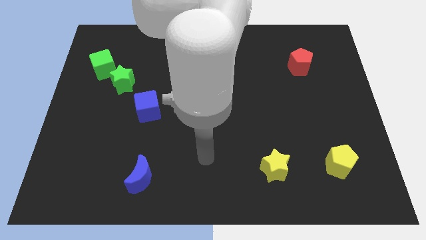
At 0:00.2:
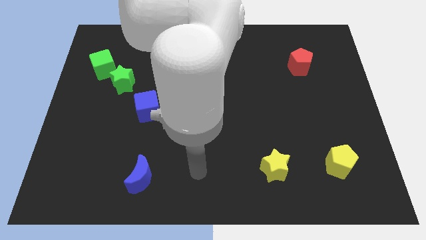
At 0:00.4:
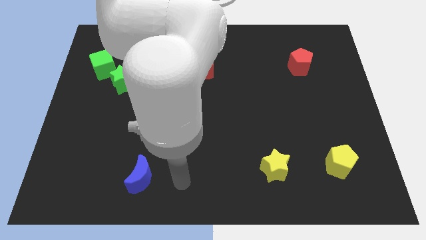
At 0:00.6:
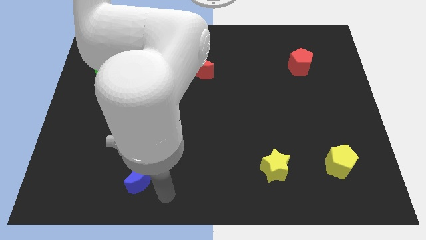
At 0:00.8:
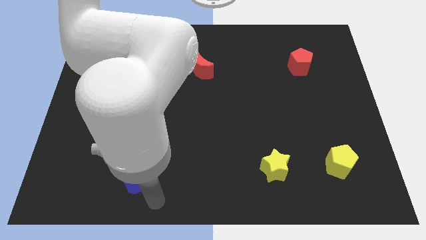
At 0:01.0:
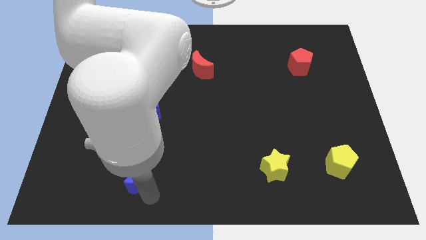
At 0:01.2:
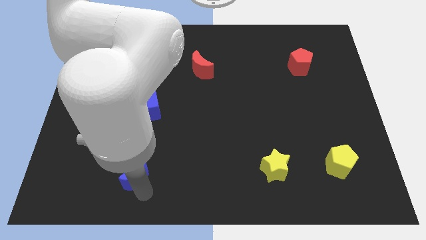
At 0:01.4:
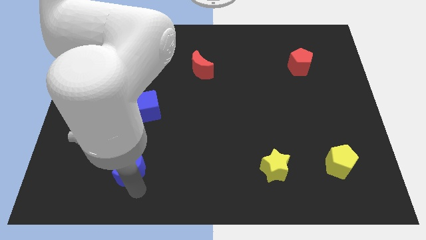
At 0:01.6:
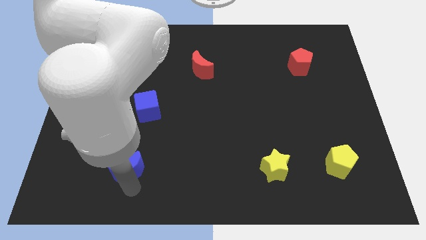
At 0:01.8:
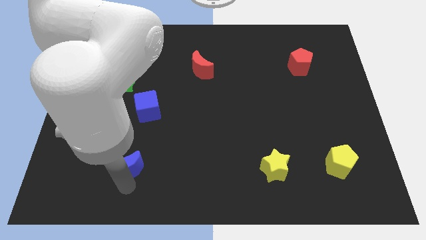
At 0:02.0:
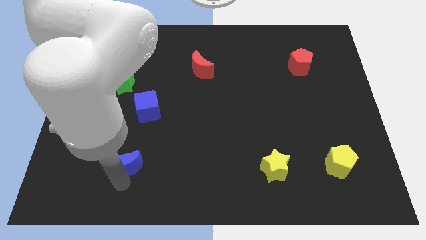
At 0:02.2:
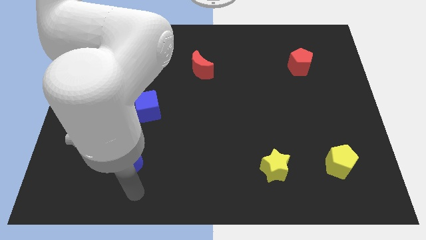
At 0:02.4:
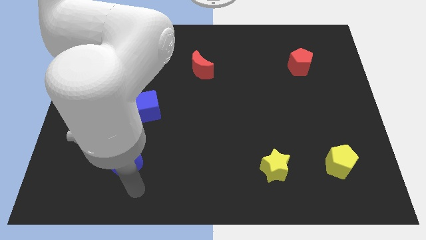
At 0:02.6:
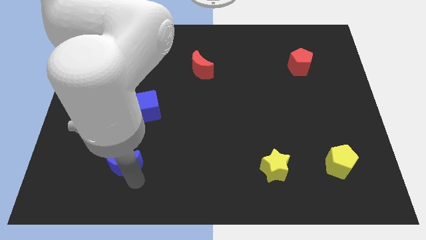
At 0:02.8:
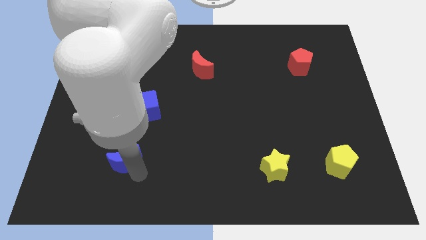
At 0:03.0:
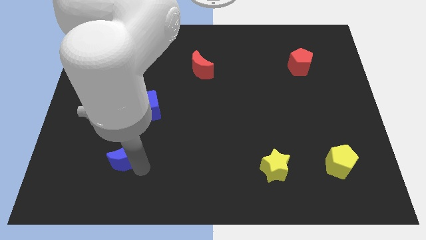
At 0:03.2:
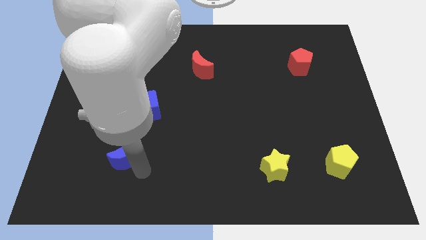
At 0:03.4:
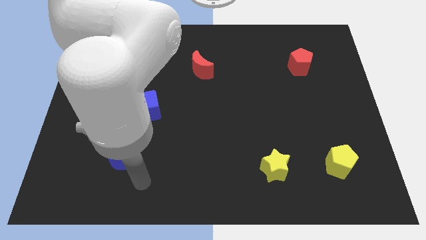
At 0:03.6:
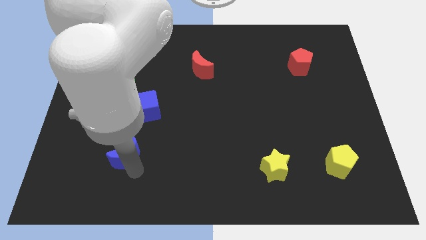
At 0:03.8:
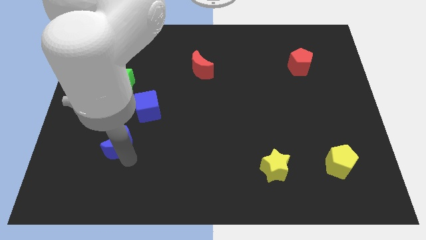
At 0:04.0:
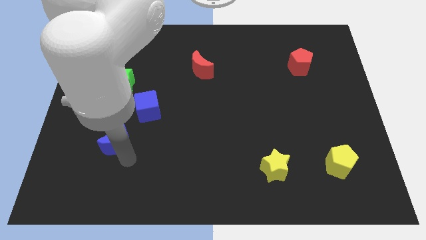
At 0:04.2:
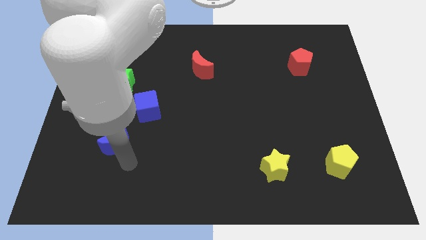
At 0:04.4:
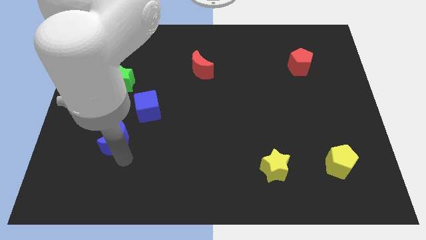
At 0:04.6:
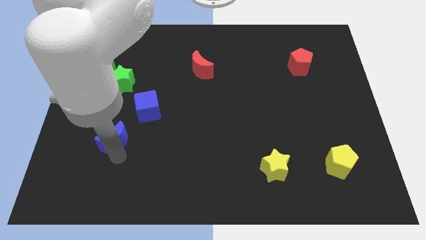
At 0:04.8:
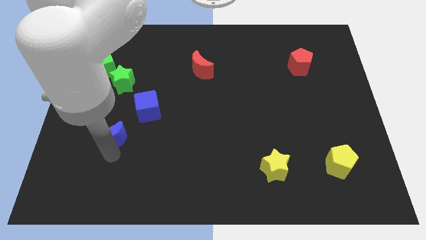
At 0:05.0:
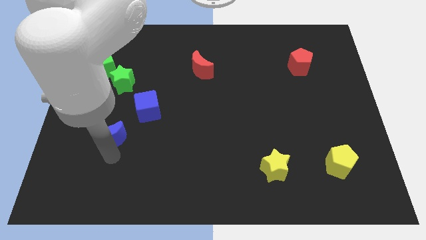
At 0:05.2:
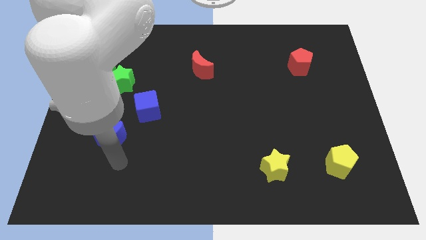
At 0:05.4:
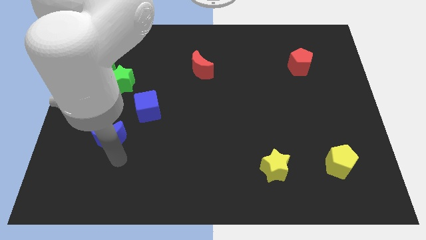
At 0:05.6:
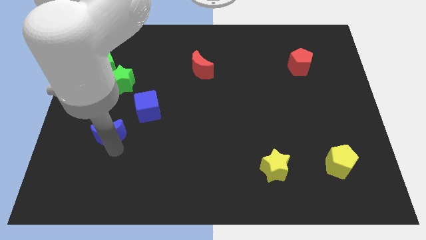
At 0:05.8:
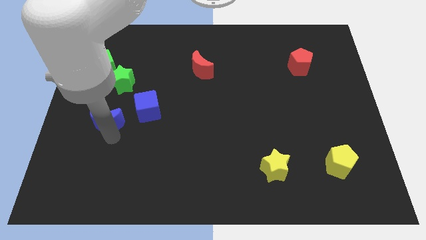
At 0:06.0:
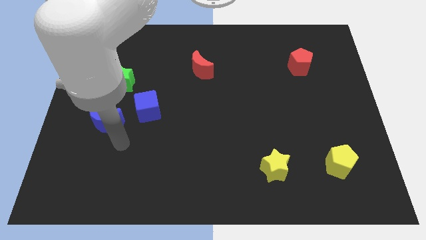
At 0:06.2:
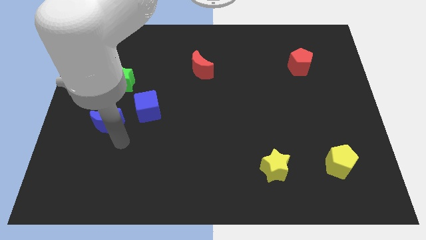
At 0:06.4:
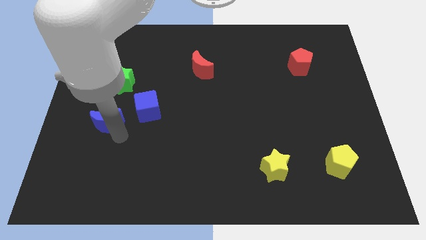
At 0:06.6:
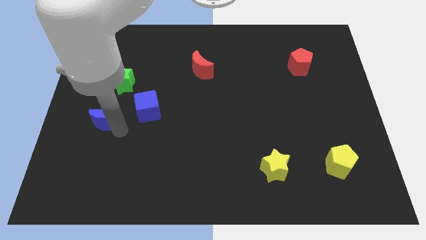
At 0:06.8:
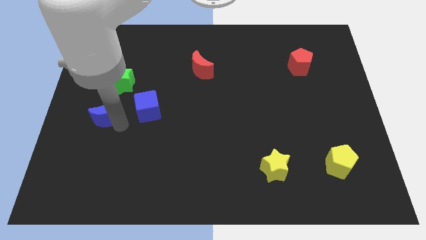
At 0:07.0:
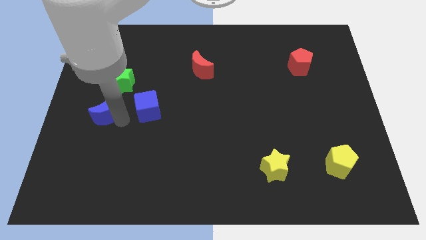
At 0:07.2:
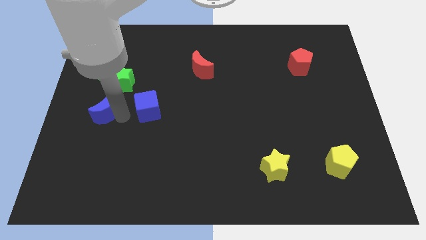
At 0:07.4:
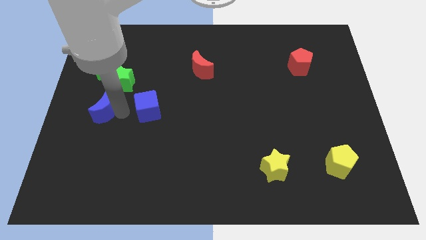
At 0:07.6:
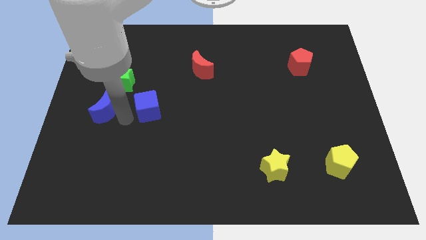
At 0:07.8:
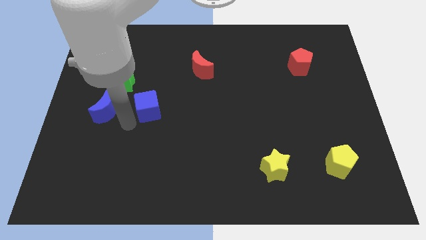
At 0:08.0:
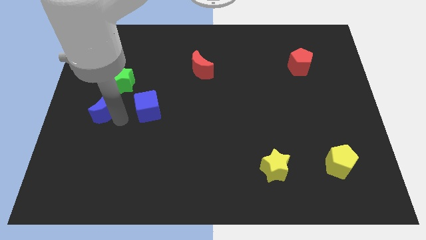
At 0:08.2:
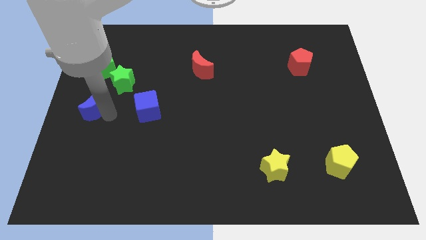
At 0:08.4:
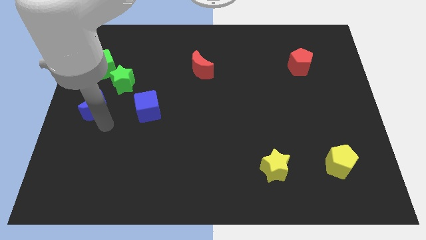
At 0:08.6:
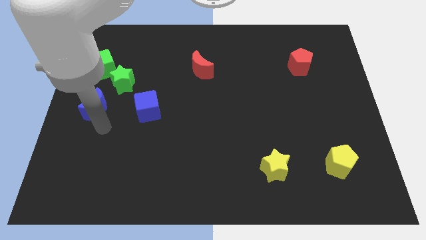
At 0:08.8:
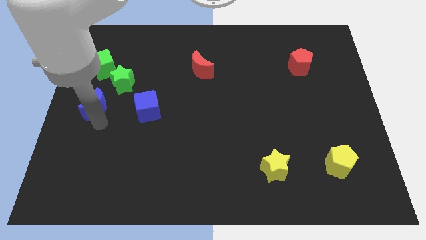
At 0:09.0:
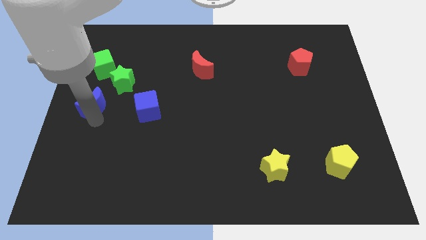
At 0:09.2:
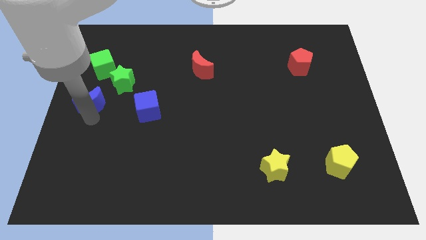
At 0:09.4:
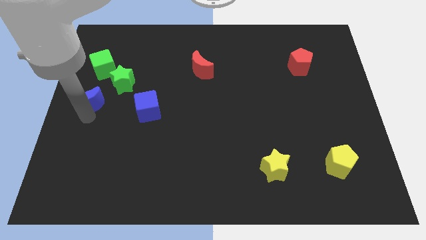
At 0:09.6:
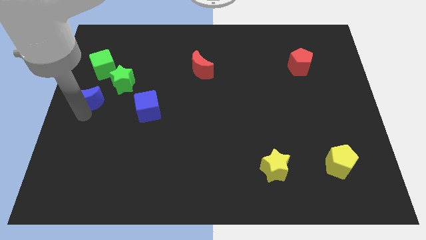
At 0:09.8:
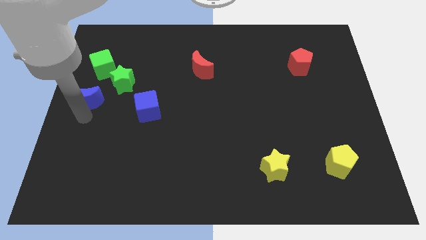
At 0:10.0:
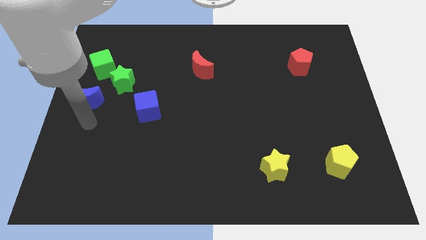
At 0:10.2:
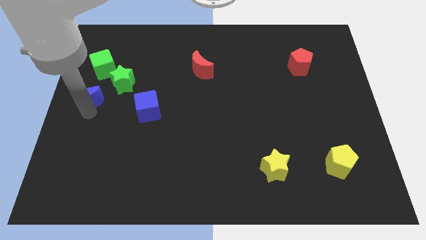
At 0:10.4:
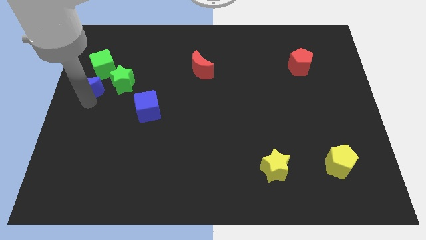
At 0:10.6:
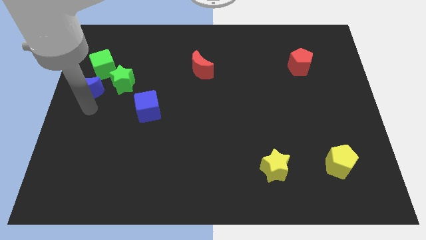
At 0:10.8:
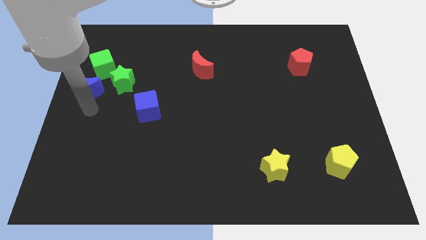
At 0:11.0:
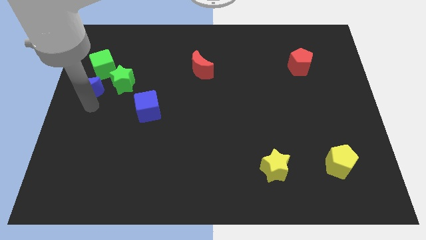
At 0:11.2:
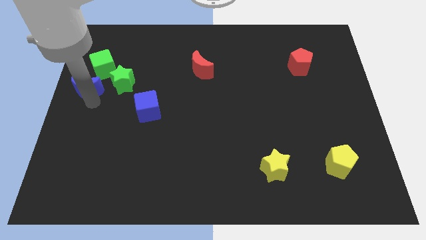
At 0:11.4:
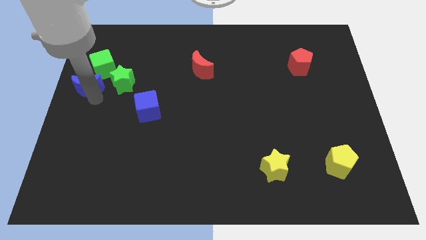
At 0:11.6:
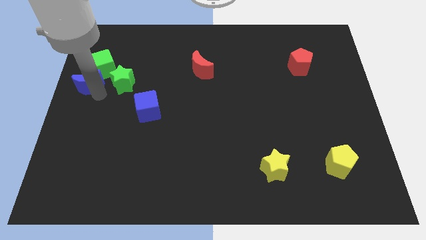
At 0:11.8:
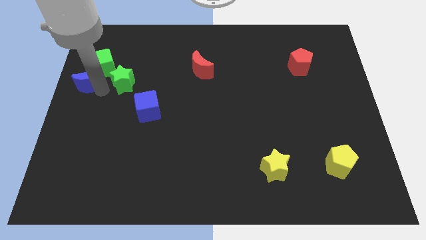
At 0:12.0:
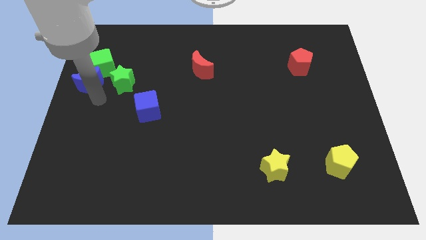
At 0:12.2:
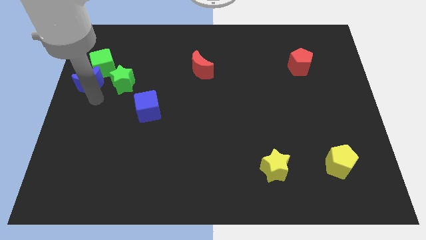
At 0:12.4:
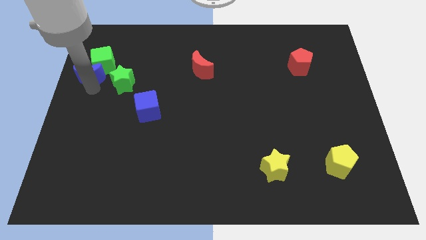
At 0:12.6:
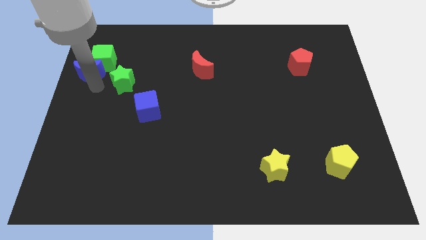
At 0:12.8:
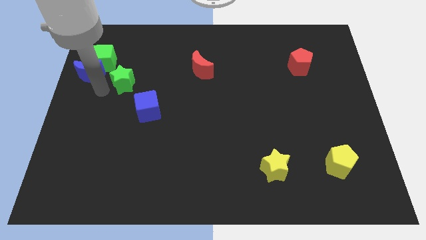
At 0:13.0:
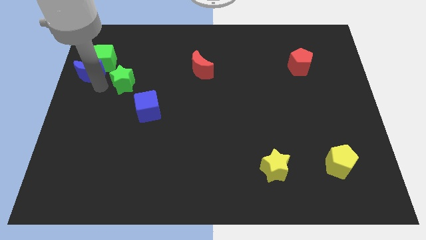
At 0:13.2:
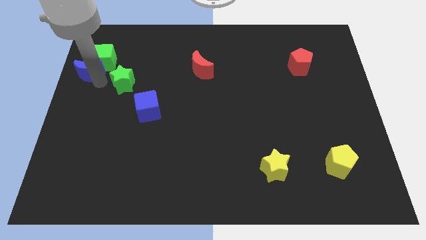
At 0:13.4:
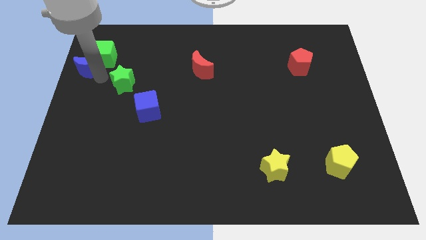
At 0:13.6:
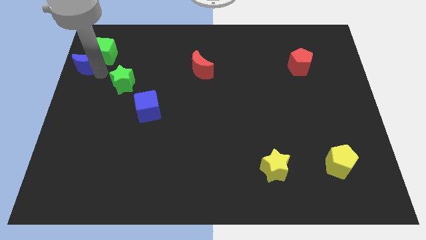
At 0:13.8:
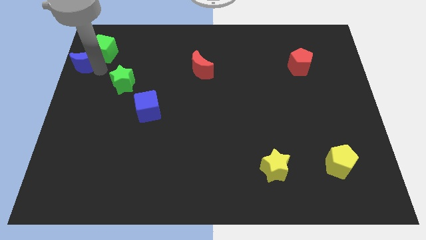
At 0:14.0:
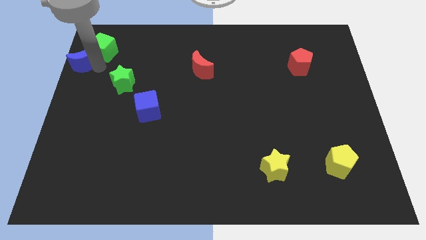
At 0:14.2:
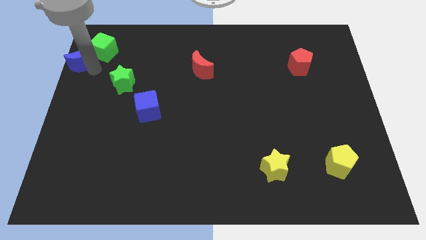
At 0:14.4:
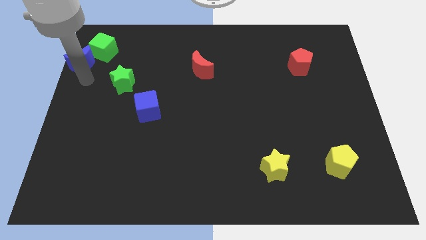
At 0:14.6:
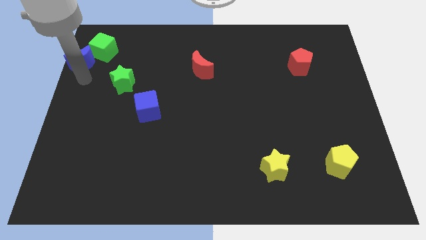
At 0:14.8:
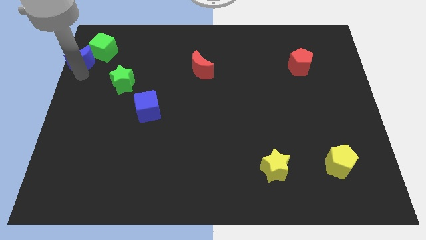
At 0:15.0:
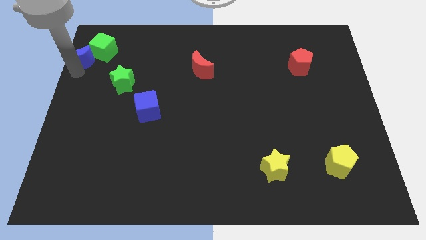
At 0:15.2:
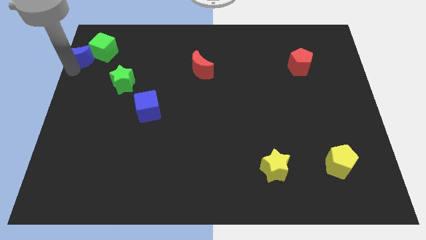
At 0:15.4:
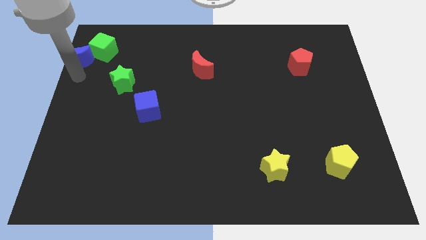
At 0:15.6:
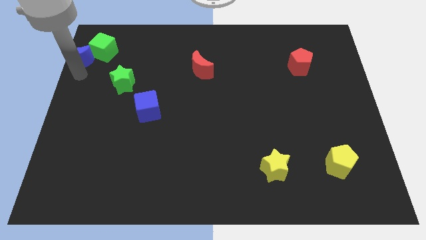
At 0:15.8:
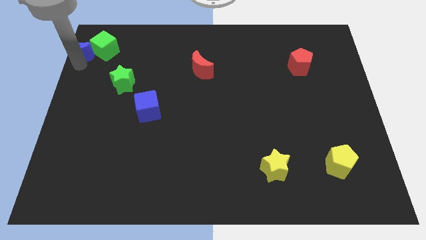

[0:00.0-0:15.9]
push the blue moon to the top left corner
